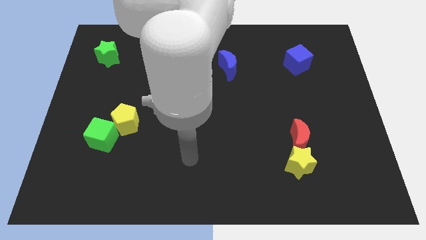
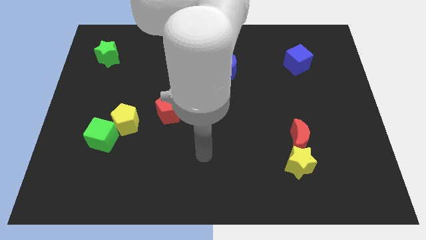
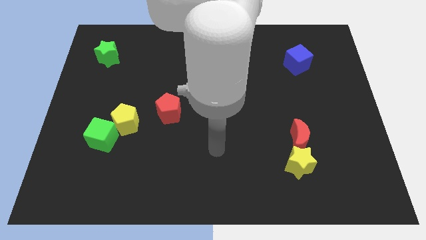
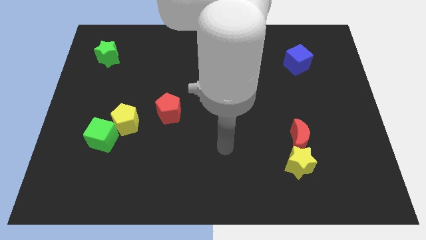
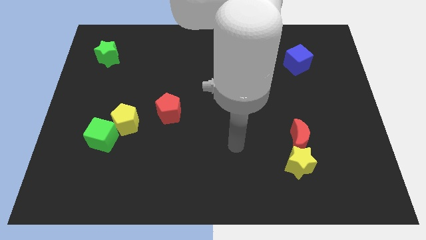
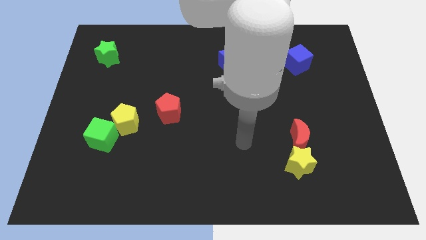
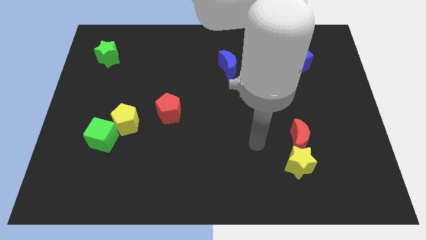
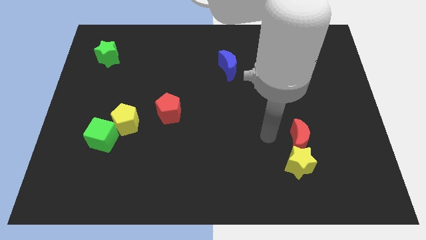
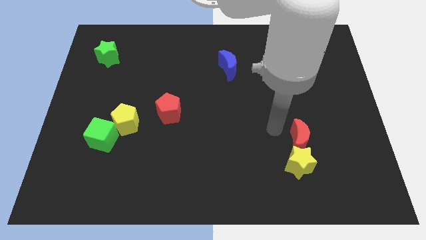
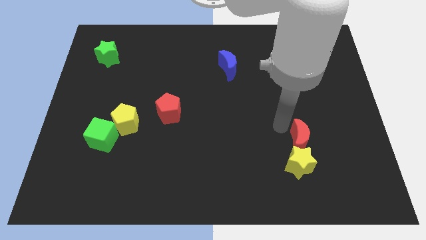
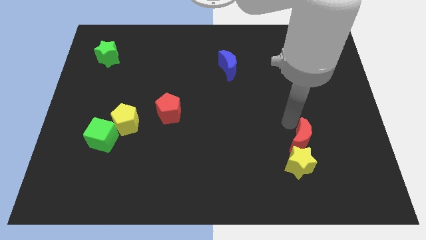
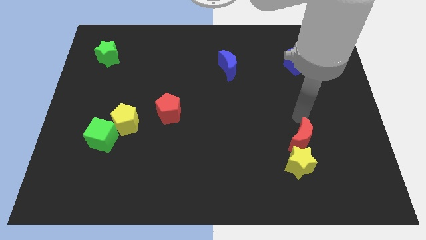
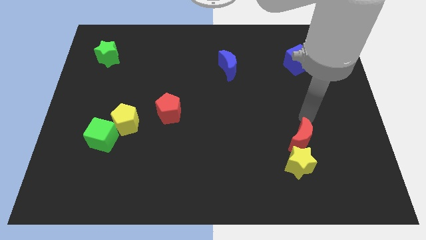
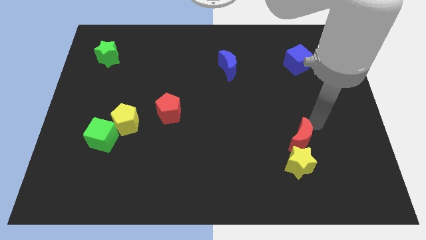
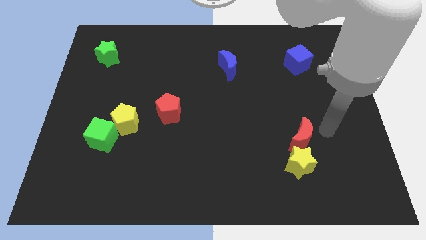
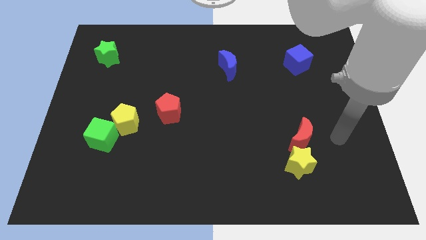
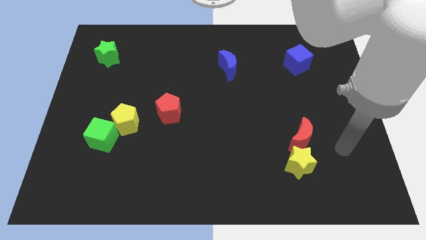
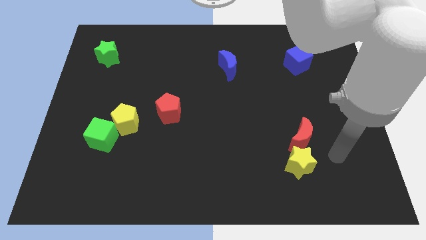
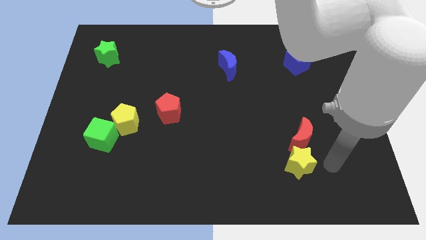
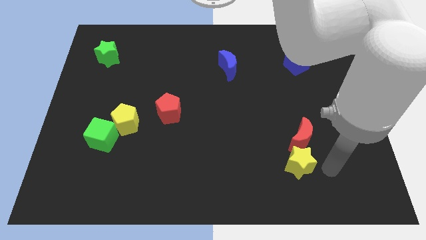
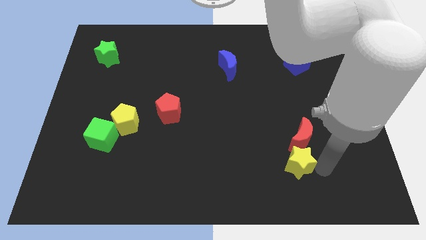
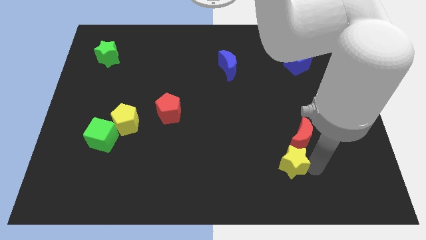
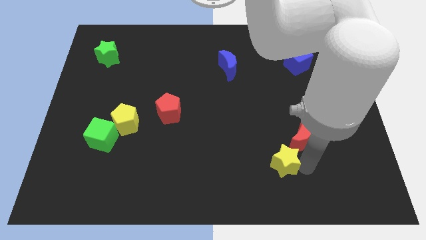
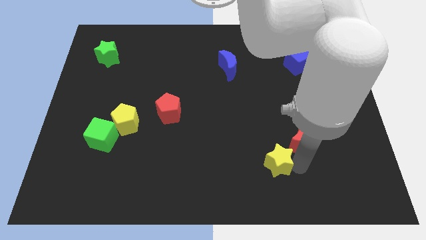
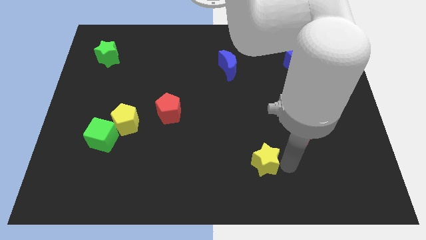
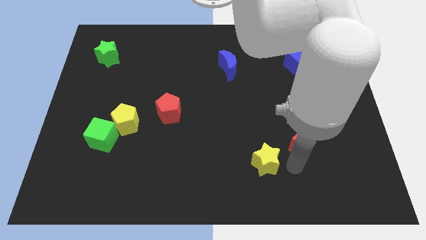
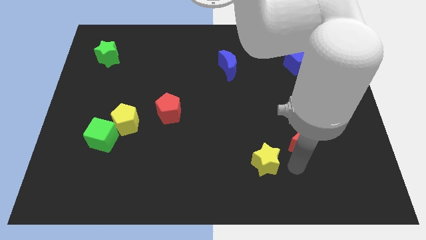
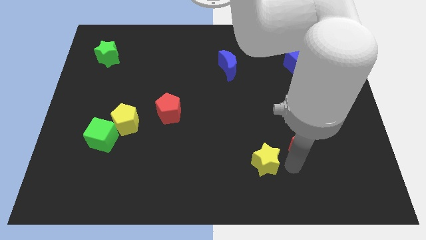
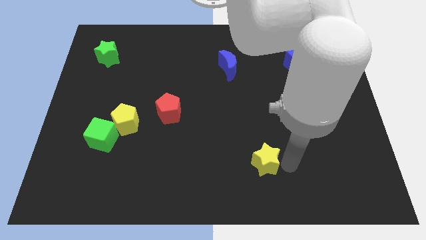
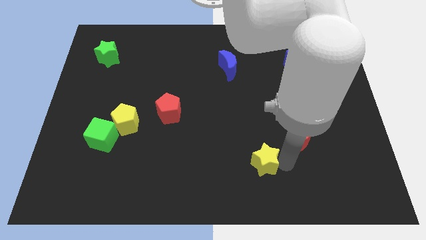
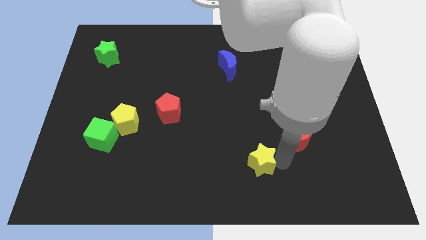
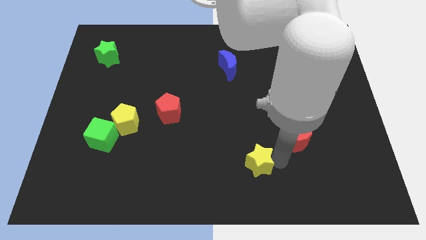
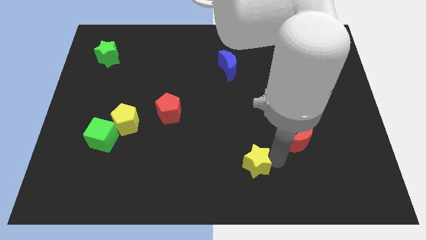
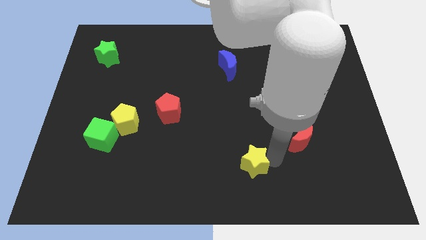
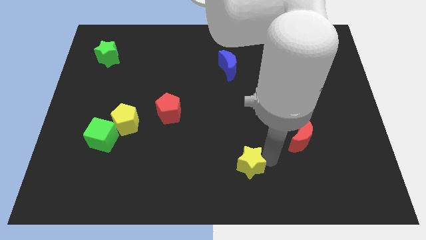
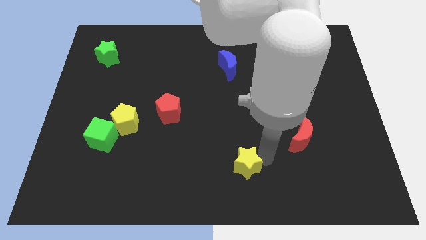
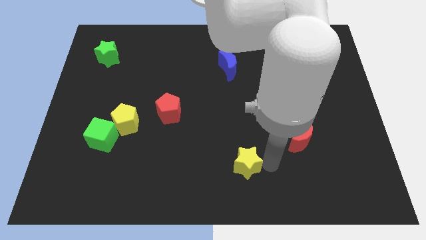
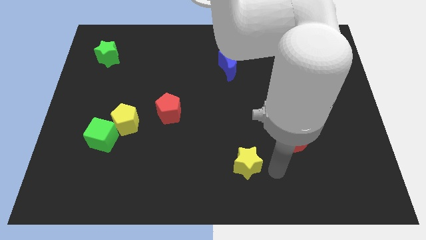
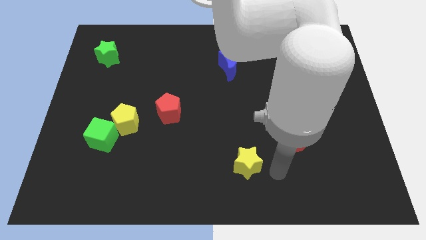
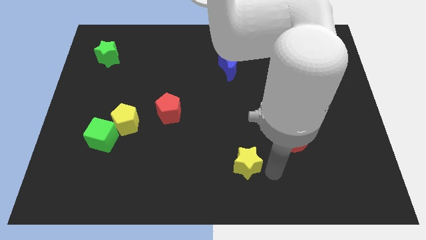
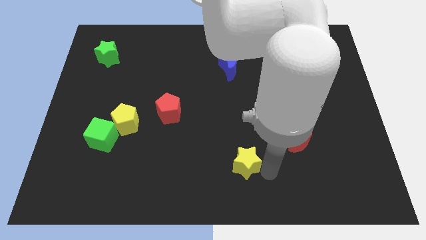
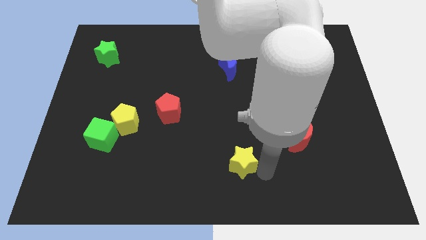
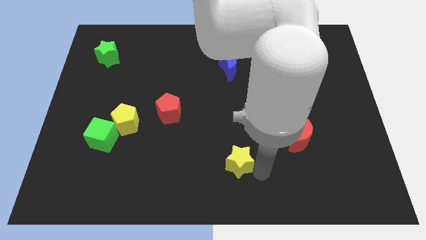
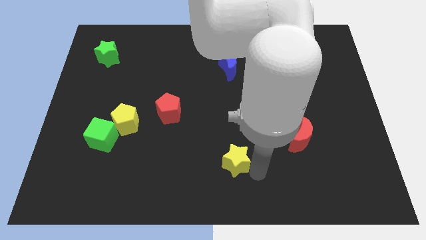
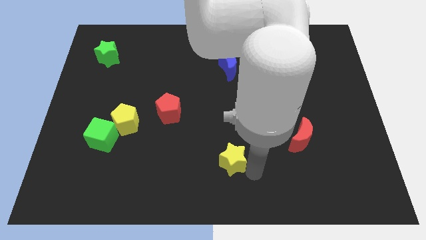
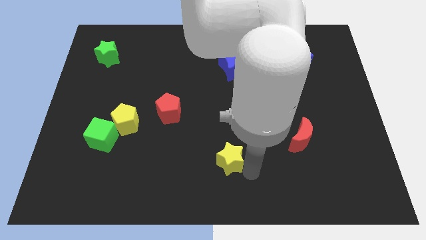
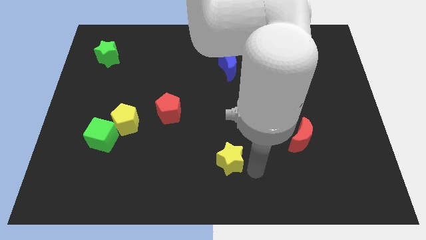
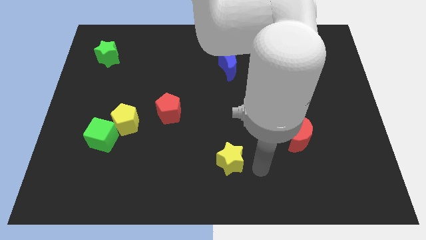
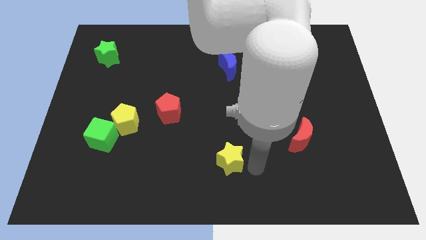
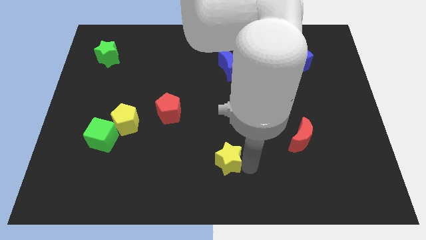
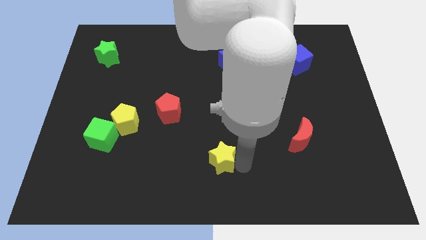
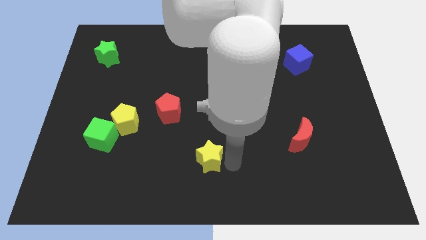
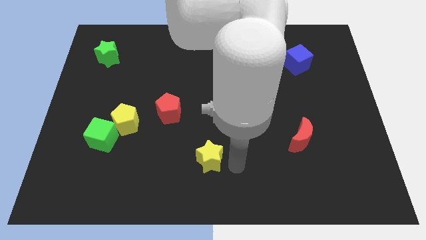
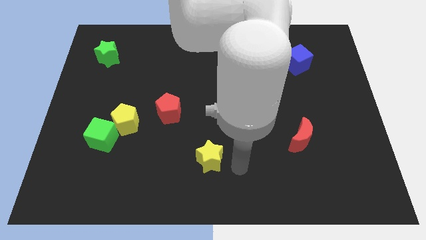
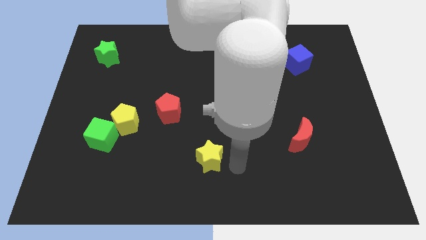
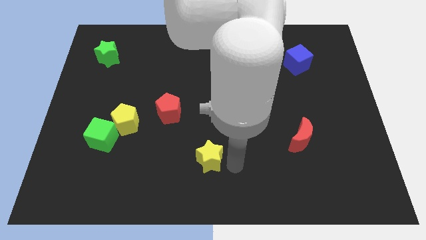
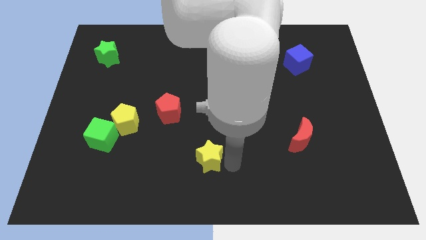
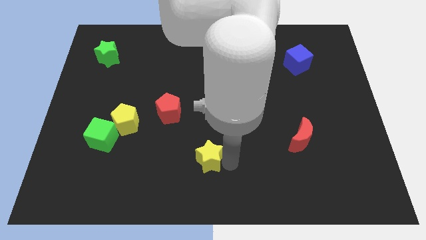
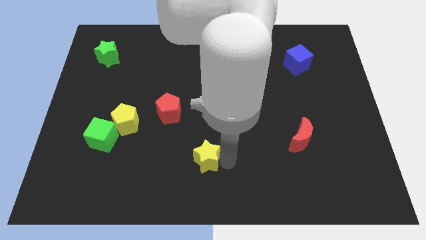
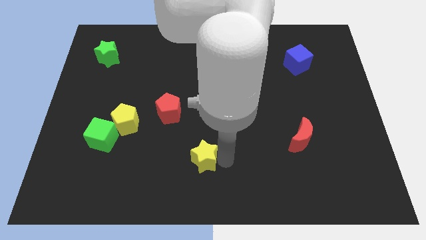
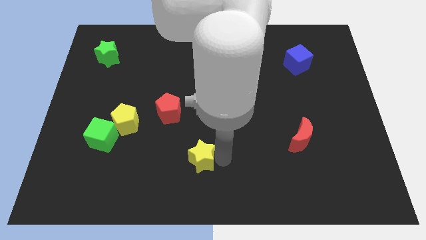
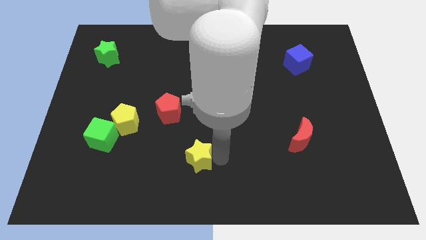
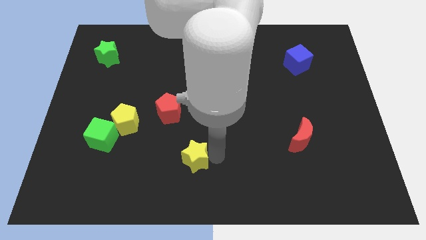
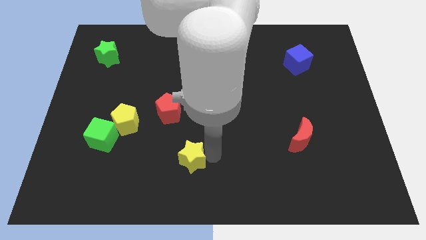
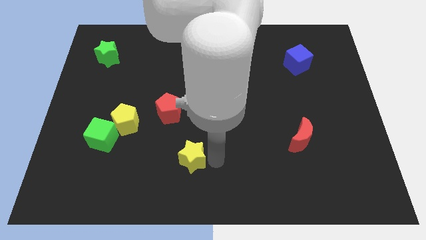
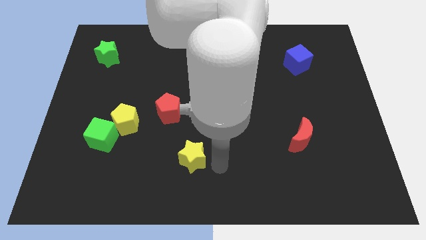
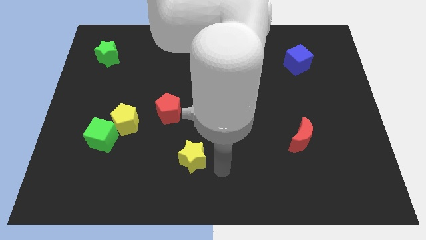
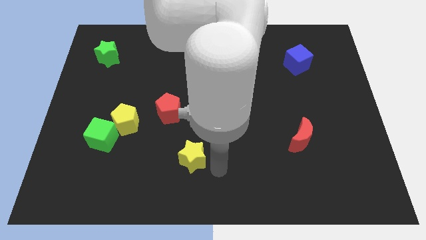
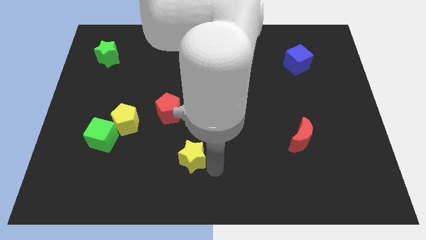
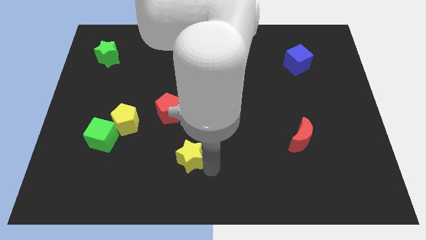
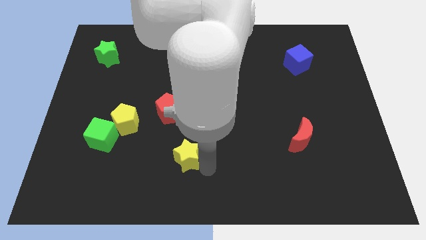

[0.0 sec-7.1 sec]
move the yellow star below the red pentagon
